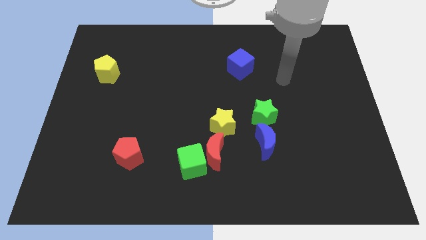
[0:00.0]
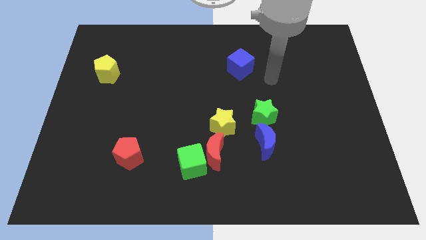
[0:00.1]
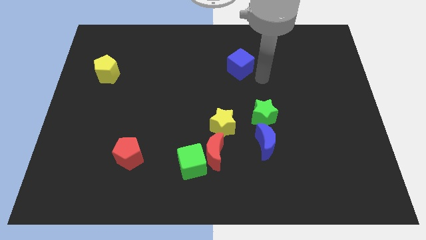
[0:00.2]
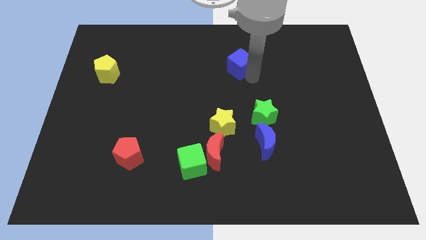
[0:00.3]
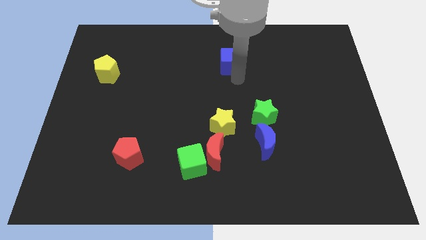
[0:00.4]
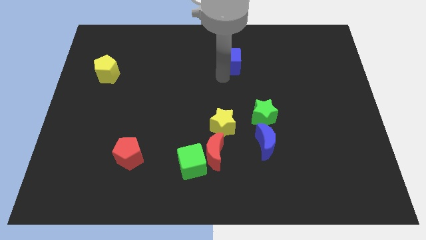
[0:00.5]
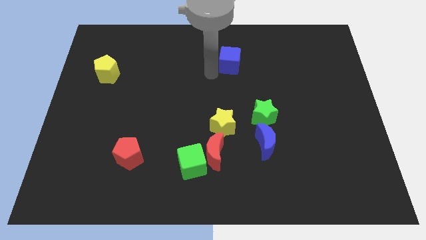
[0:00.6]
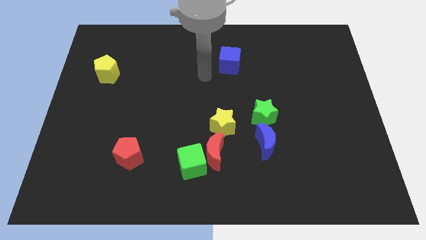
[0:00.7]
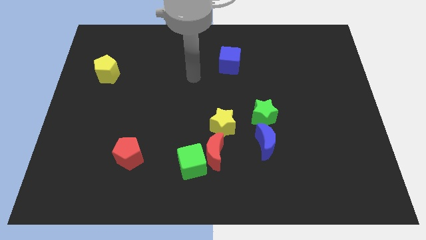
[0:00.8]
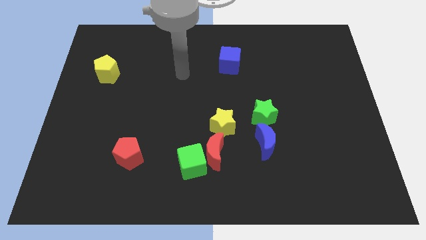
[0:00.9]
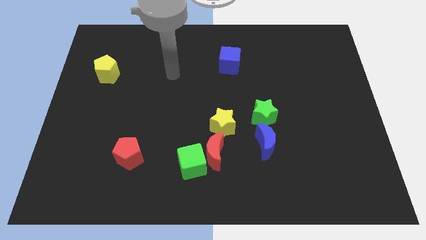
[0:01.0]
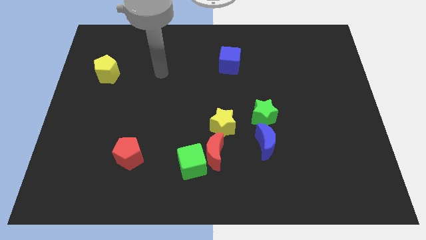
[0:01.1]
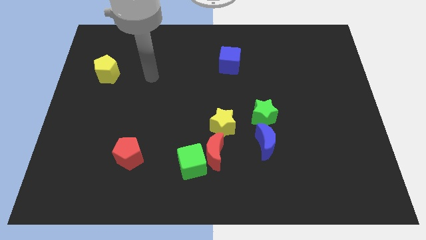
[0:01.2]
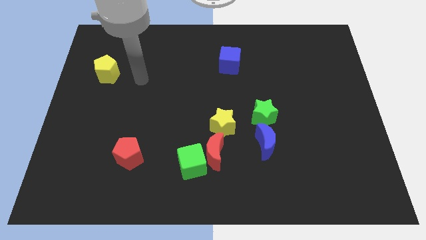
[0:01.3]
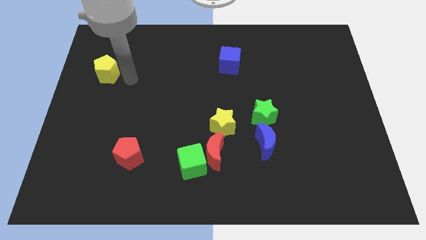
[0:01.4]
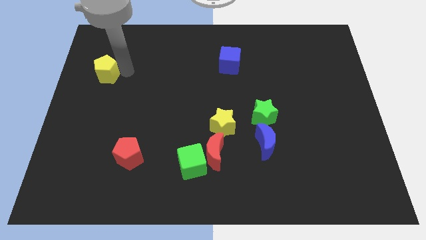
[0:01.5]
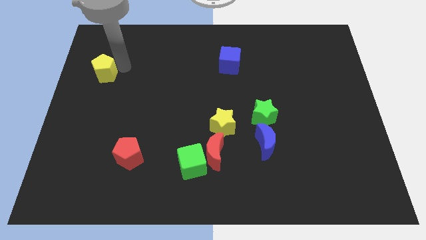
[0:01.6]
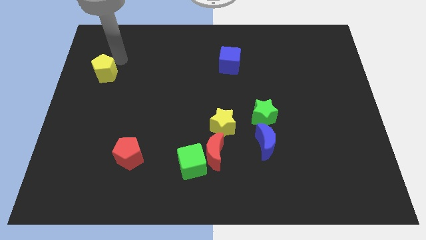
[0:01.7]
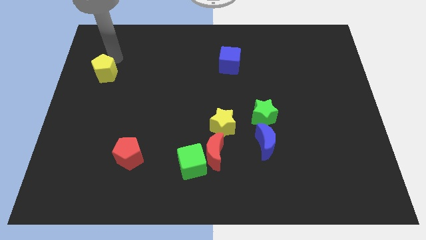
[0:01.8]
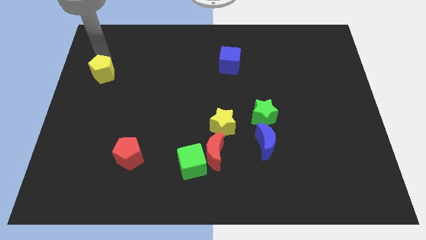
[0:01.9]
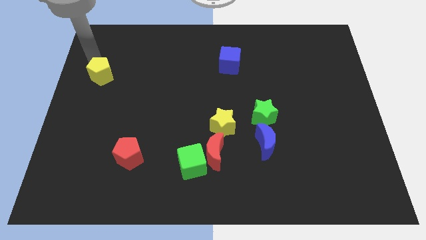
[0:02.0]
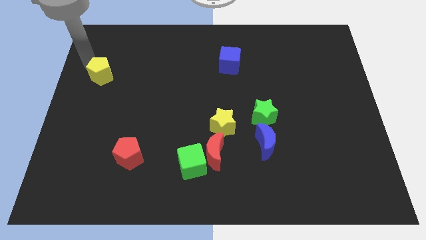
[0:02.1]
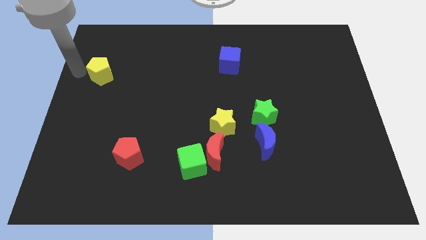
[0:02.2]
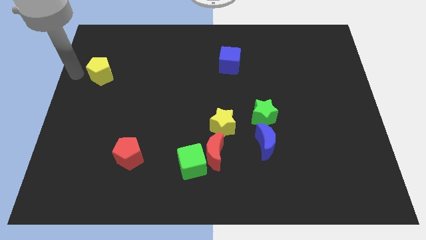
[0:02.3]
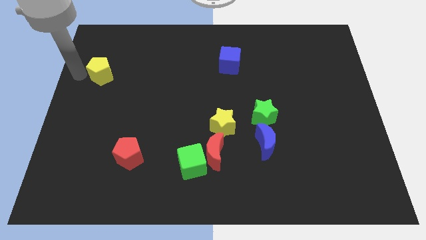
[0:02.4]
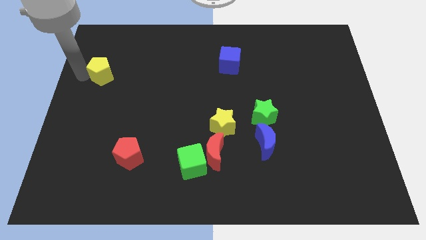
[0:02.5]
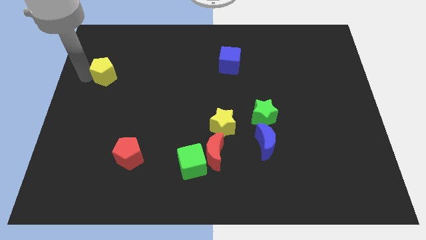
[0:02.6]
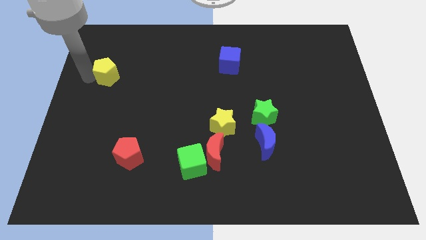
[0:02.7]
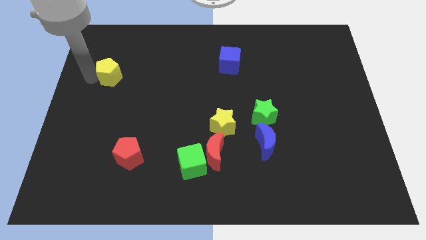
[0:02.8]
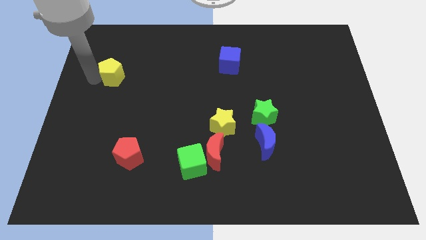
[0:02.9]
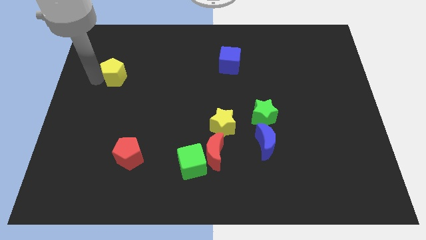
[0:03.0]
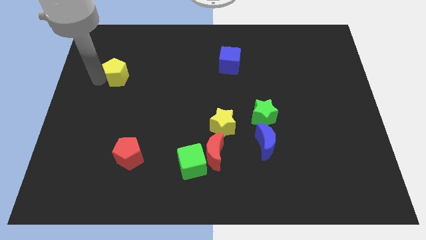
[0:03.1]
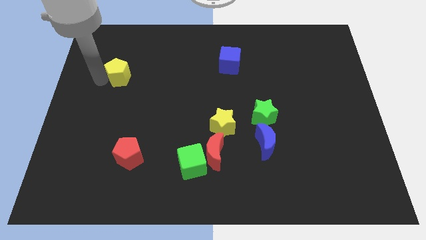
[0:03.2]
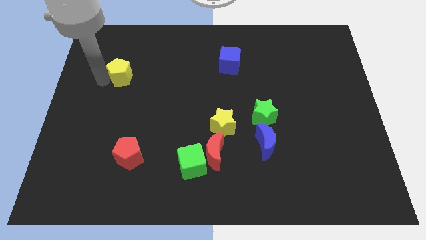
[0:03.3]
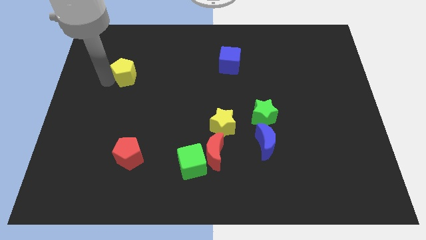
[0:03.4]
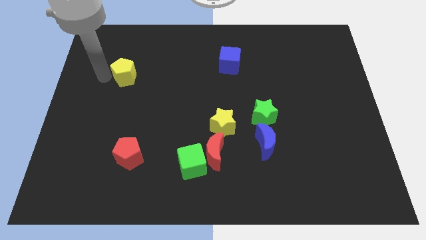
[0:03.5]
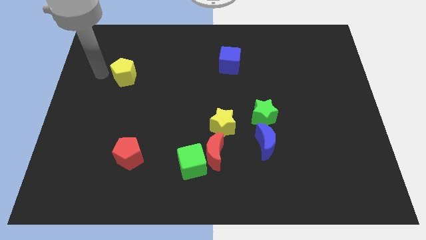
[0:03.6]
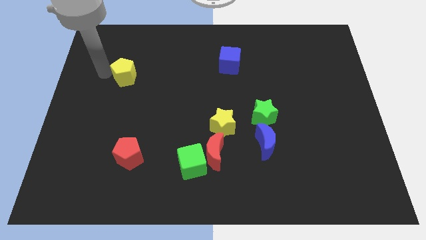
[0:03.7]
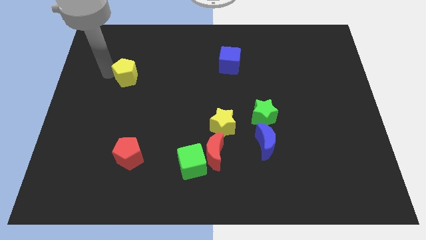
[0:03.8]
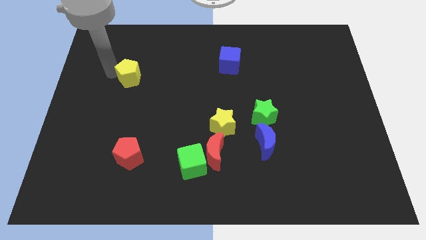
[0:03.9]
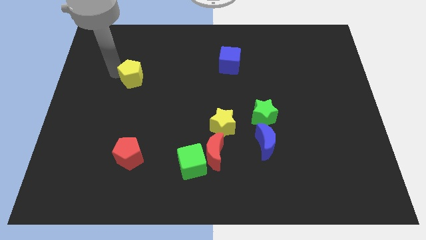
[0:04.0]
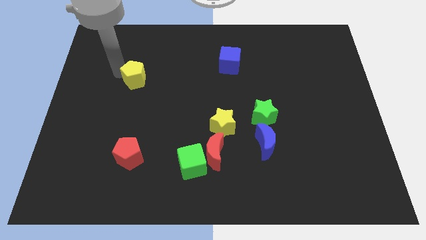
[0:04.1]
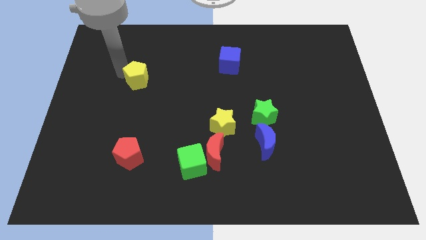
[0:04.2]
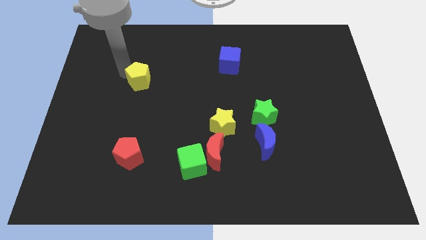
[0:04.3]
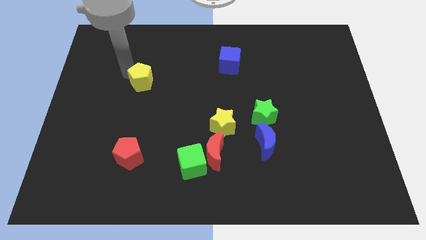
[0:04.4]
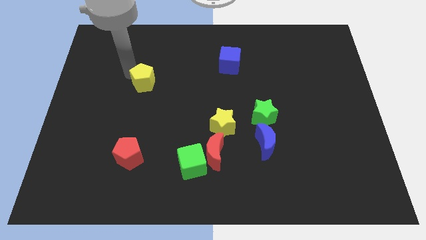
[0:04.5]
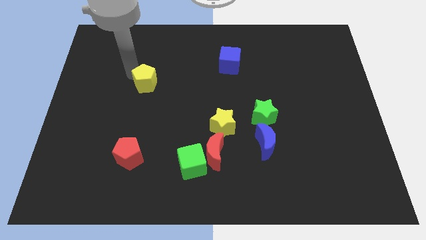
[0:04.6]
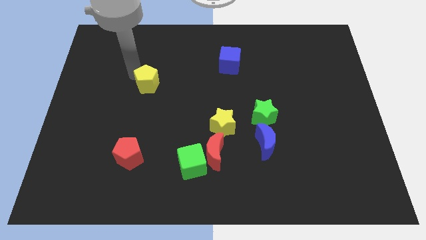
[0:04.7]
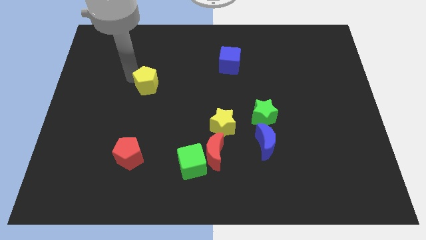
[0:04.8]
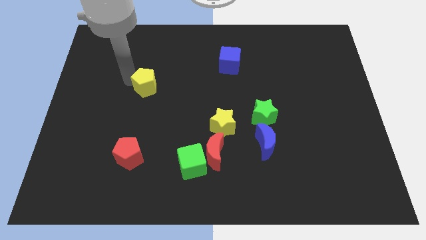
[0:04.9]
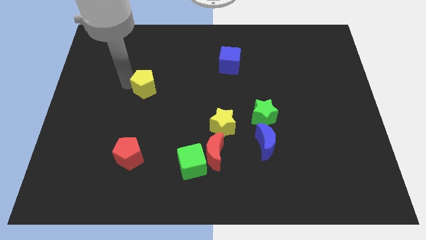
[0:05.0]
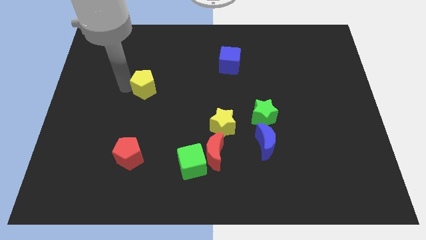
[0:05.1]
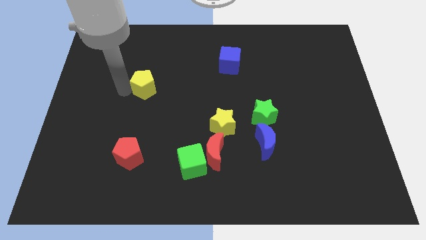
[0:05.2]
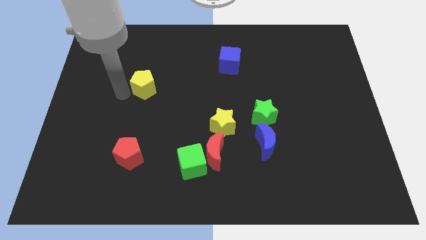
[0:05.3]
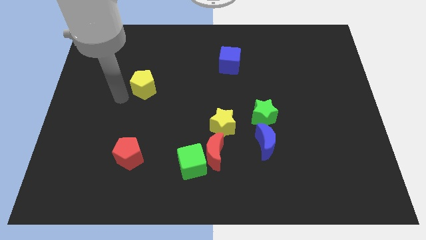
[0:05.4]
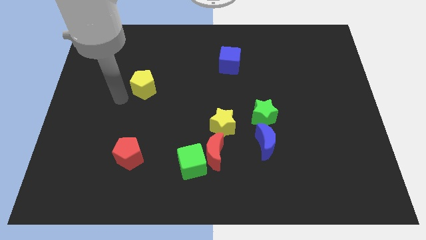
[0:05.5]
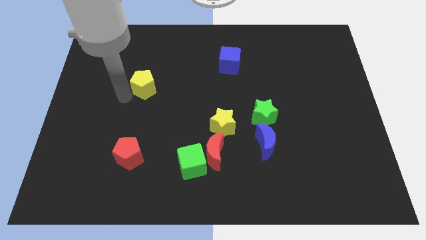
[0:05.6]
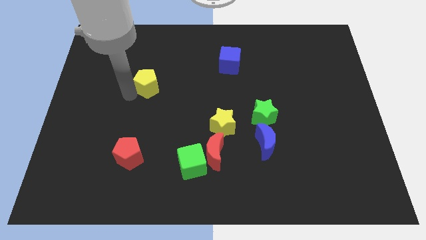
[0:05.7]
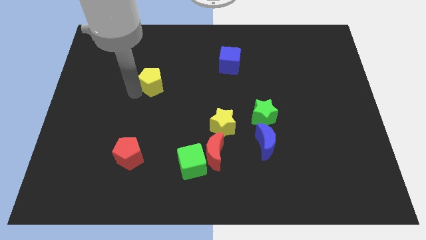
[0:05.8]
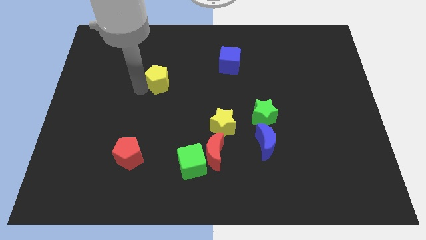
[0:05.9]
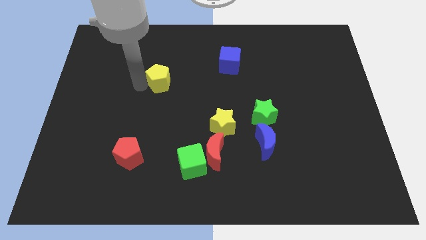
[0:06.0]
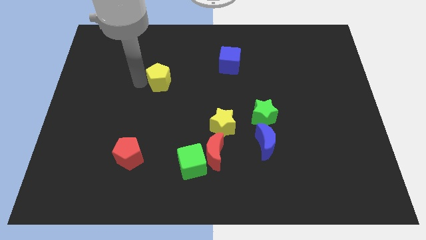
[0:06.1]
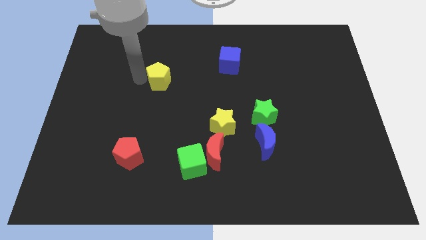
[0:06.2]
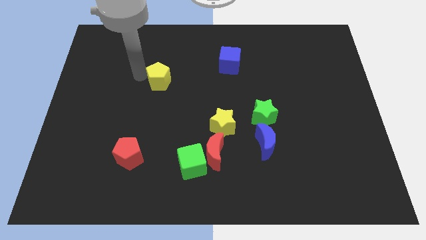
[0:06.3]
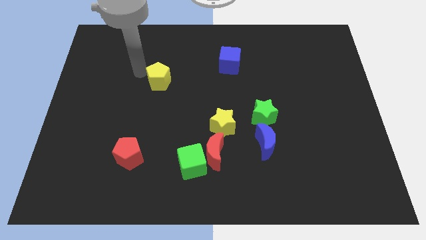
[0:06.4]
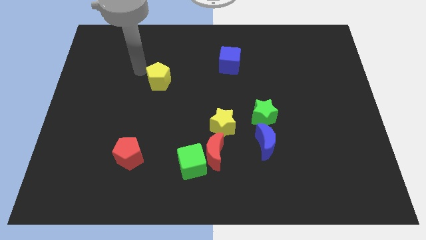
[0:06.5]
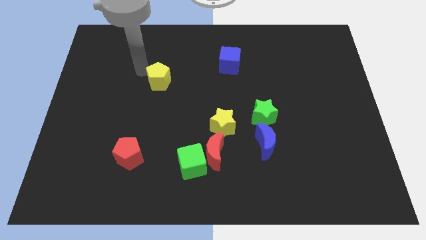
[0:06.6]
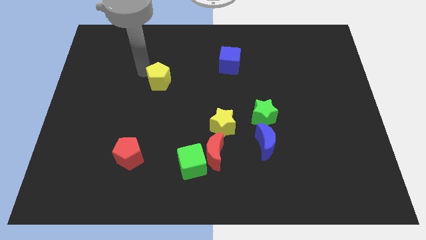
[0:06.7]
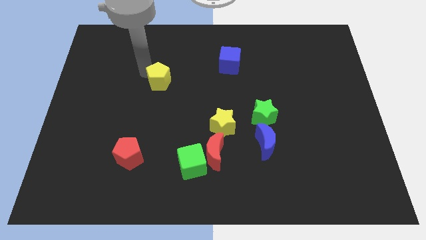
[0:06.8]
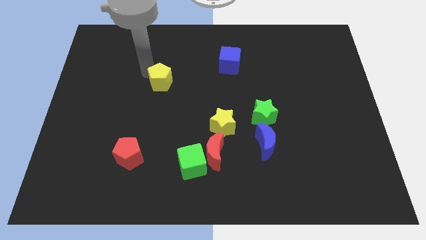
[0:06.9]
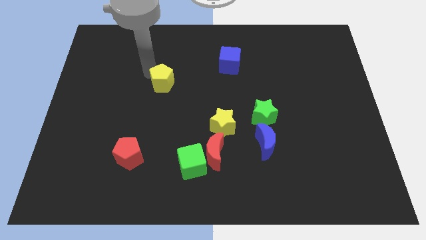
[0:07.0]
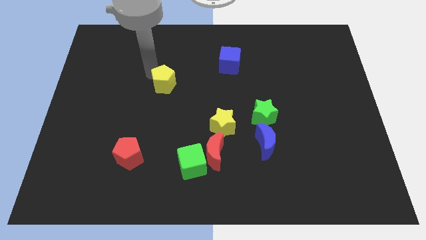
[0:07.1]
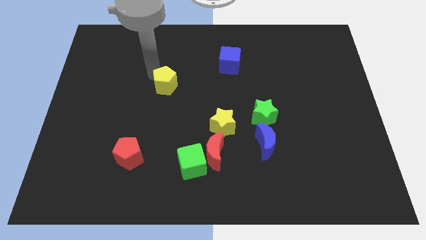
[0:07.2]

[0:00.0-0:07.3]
move the yellow pentagon to the center

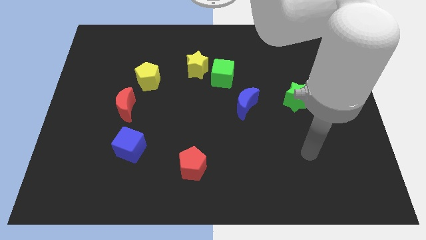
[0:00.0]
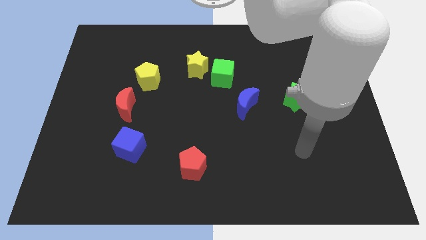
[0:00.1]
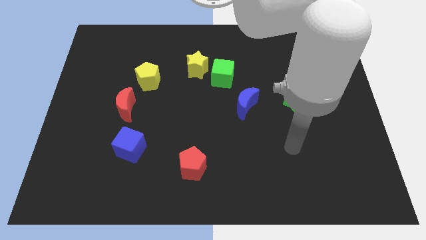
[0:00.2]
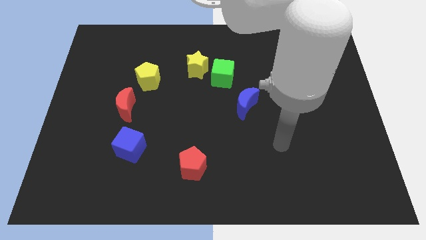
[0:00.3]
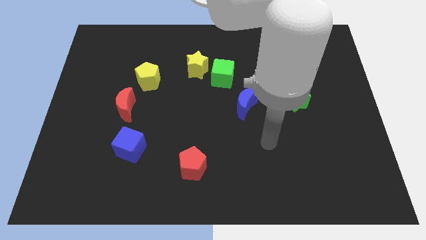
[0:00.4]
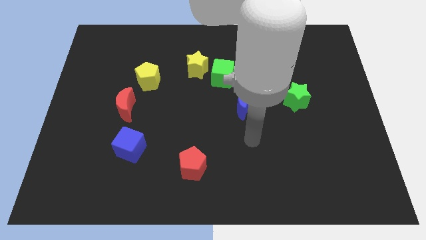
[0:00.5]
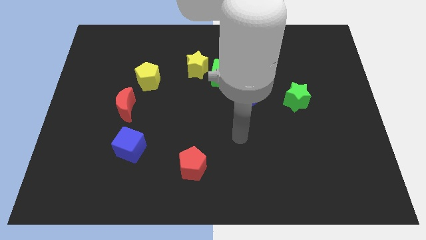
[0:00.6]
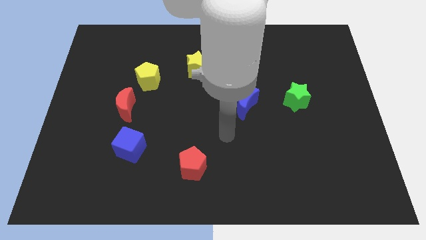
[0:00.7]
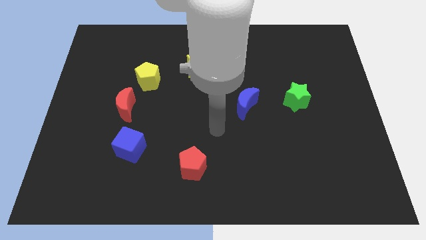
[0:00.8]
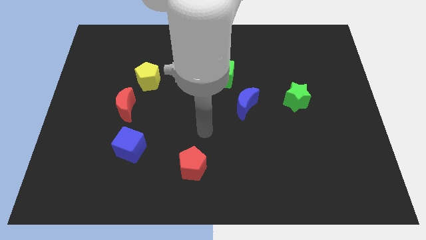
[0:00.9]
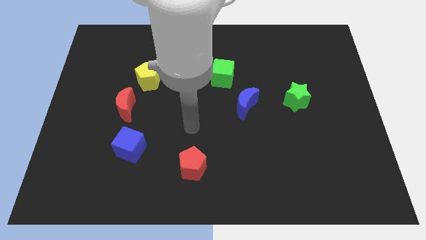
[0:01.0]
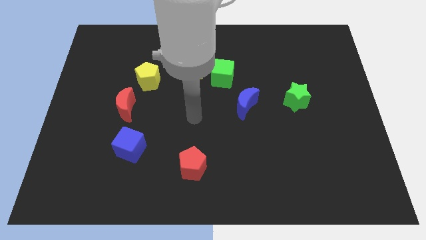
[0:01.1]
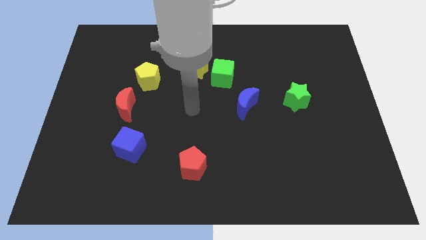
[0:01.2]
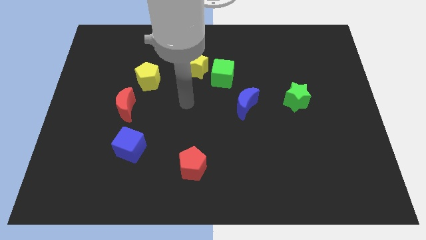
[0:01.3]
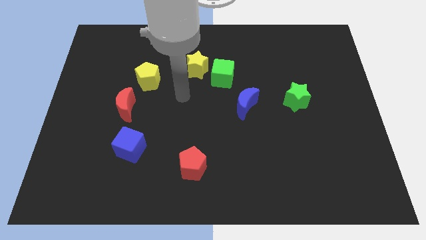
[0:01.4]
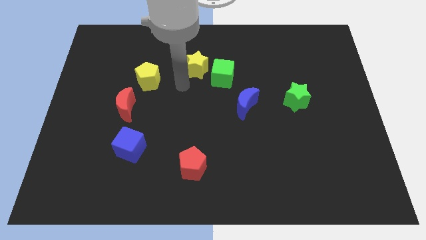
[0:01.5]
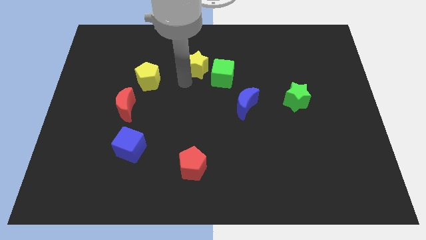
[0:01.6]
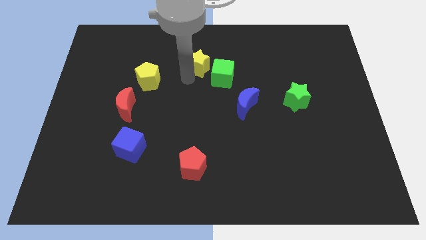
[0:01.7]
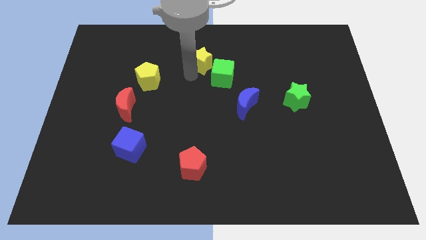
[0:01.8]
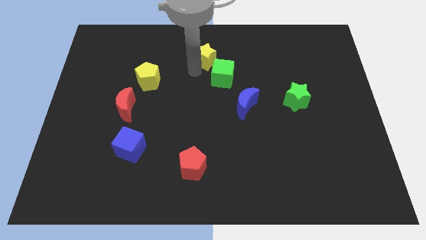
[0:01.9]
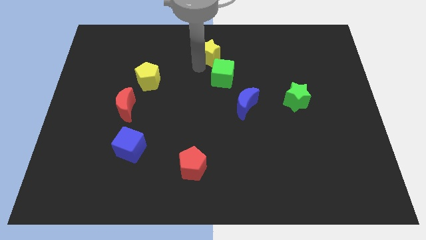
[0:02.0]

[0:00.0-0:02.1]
move the yellow star to the top
